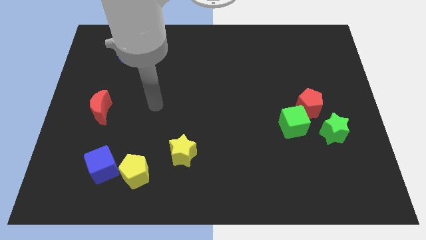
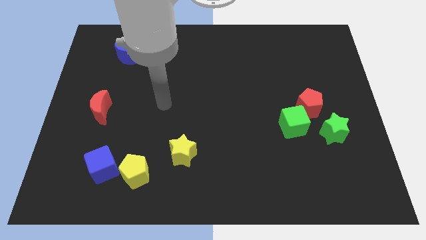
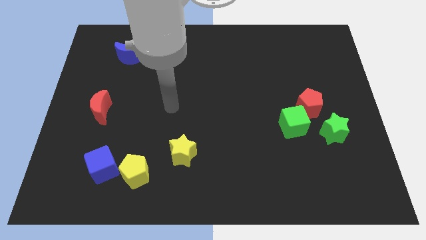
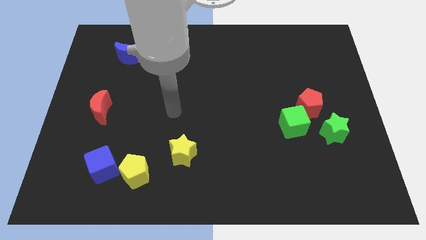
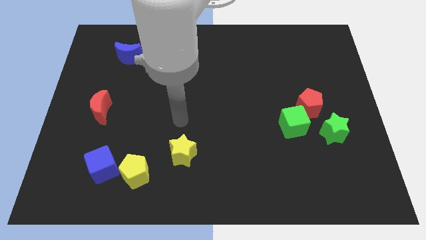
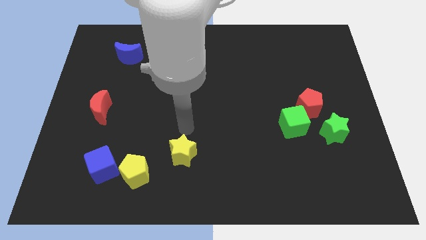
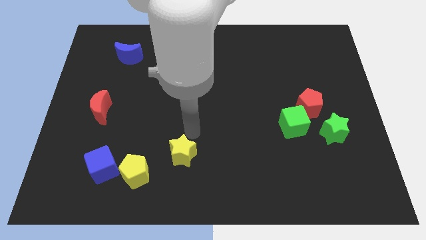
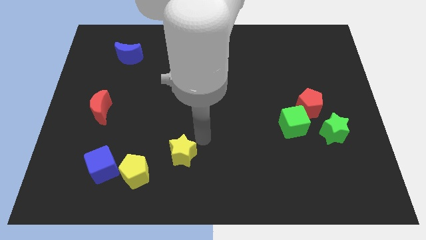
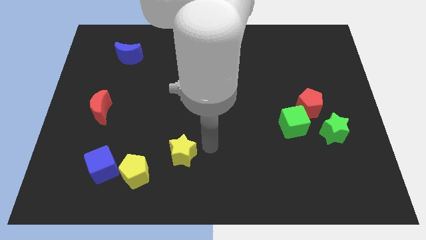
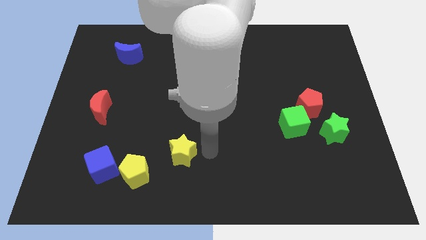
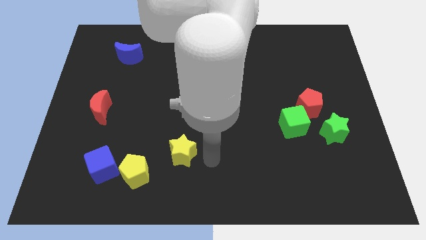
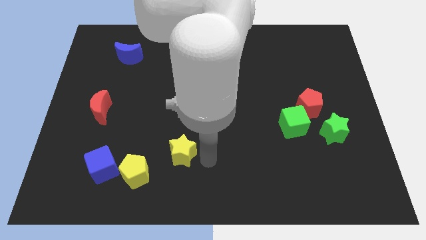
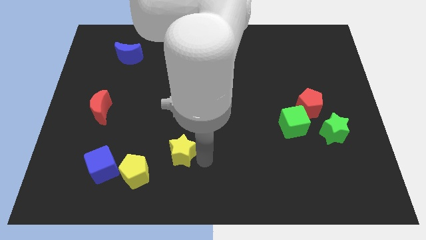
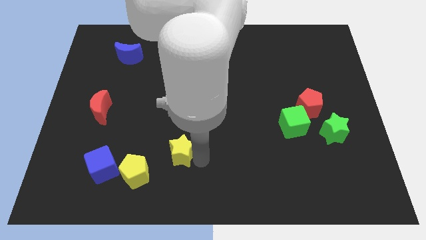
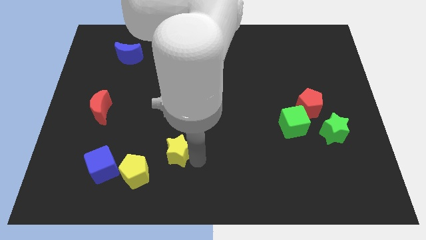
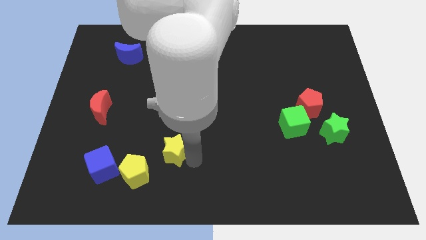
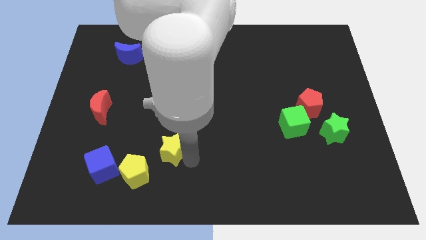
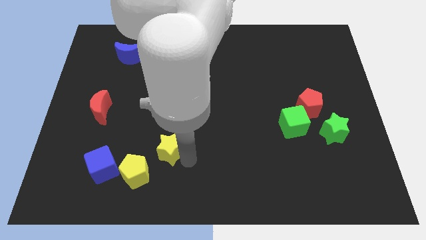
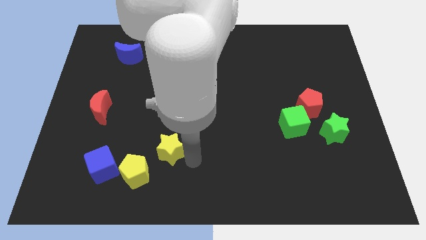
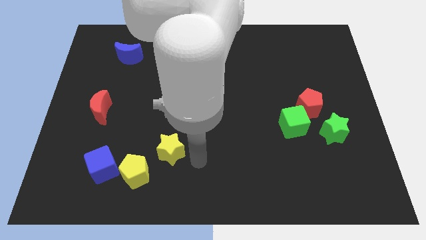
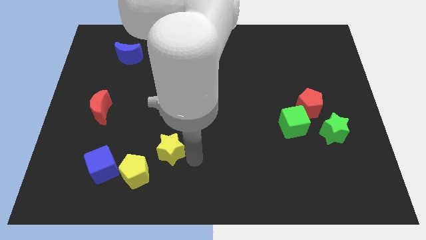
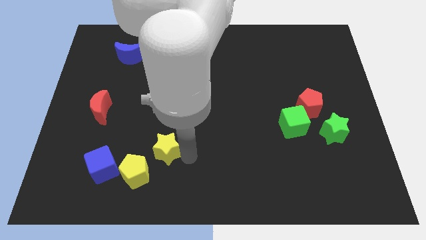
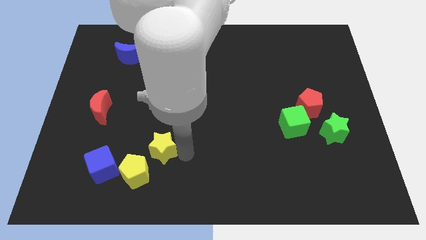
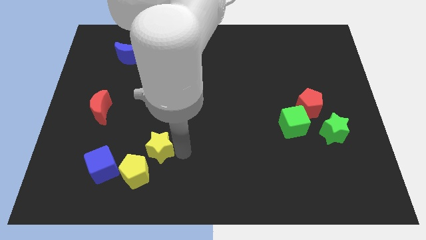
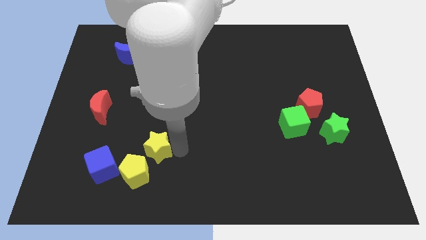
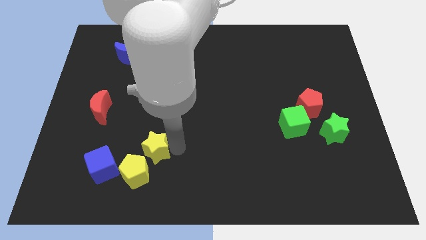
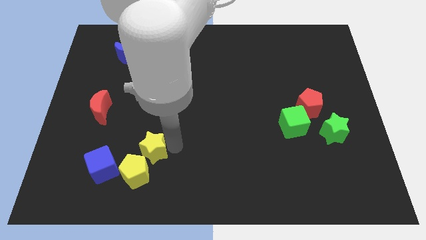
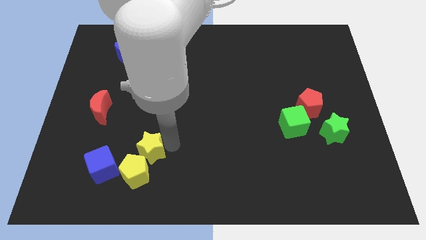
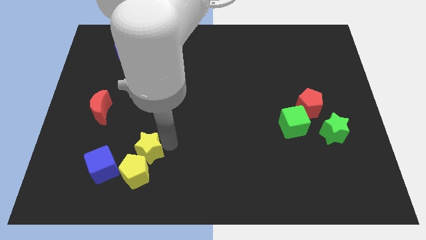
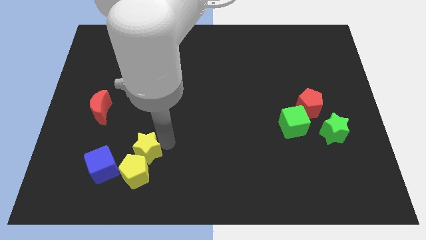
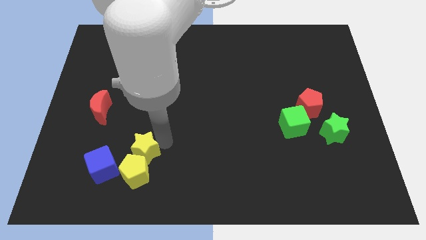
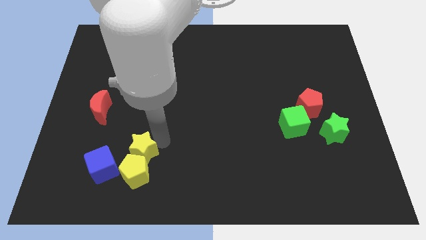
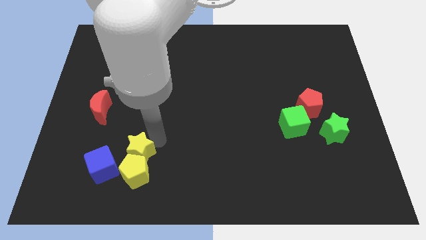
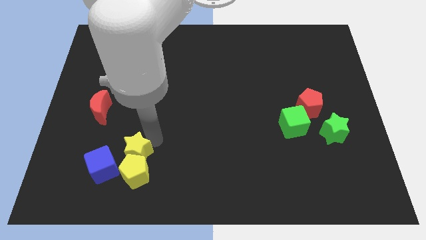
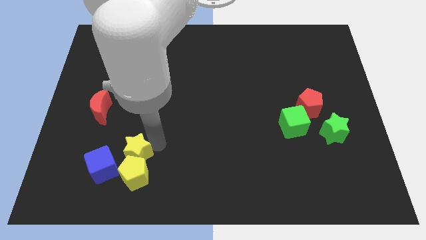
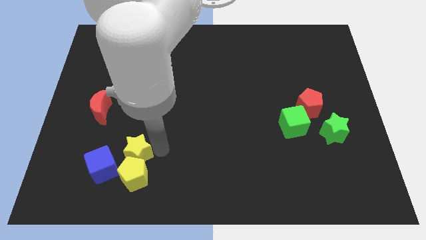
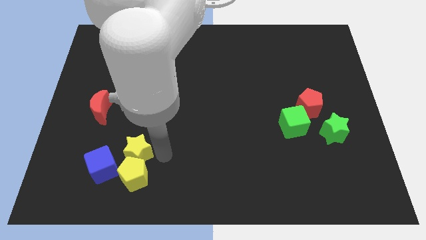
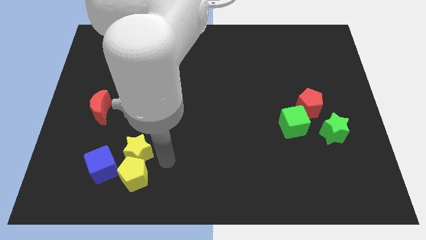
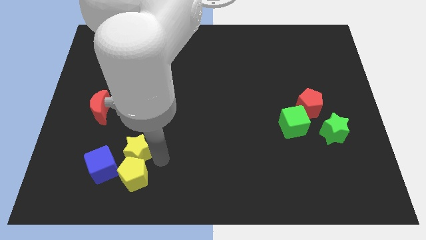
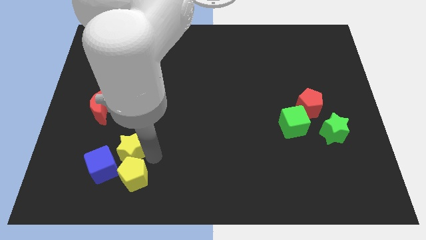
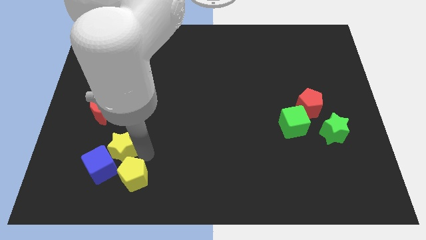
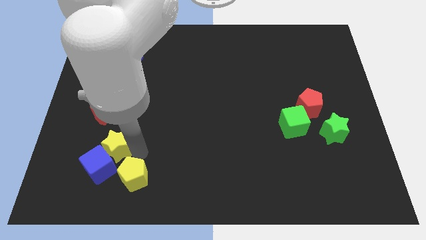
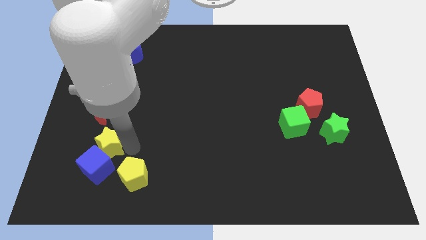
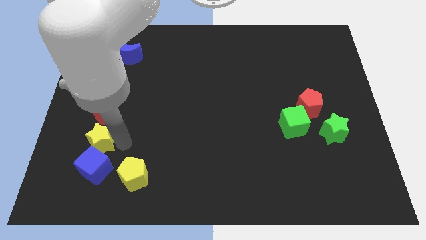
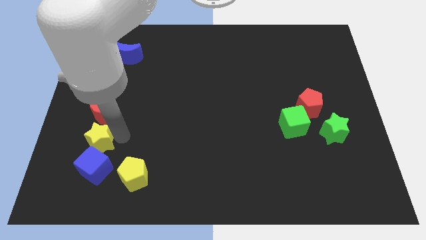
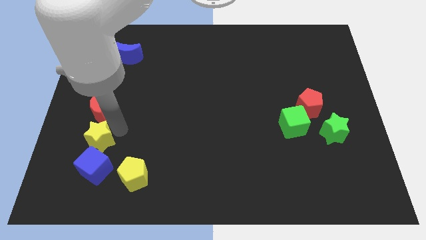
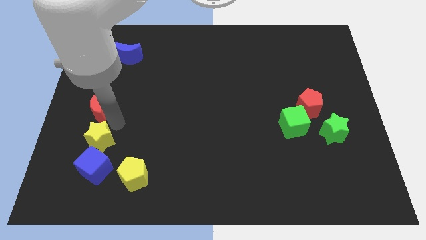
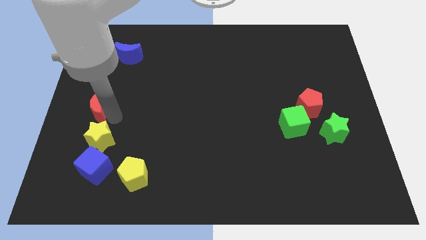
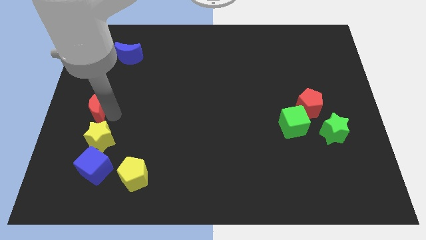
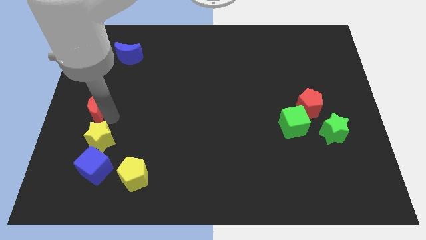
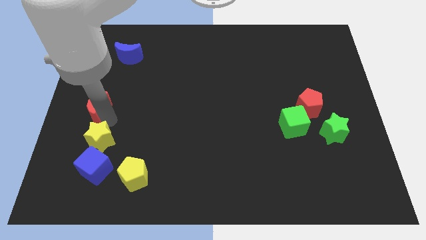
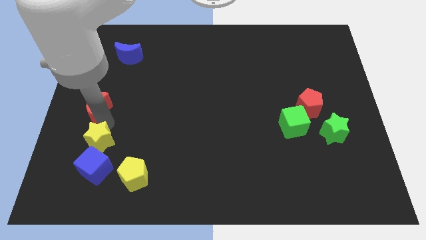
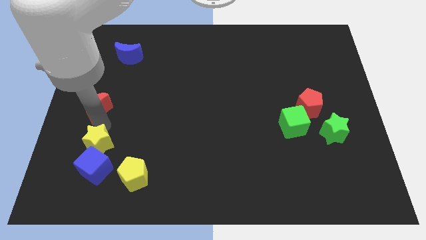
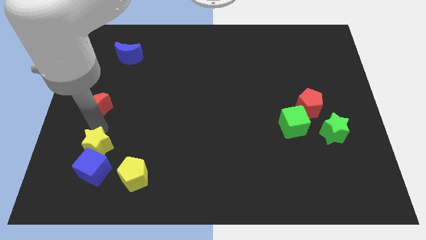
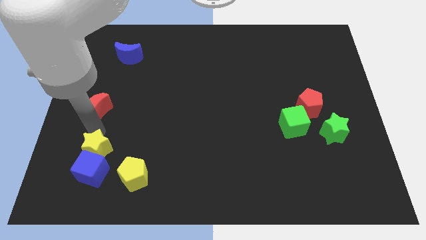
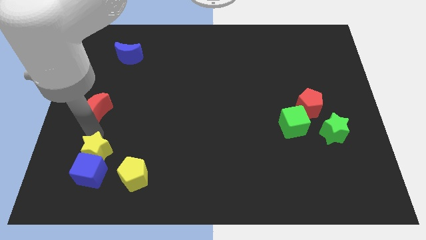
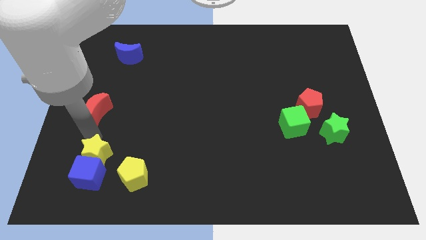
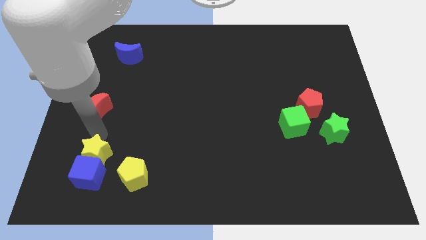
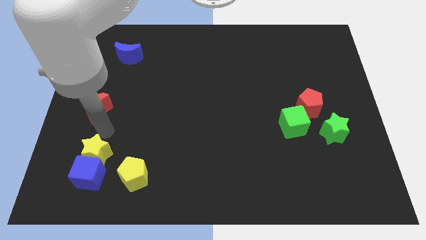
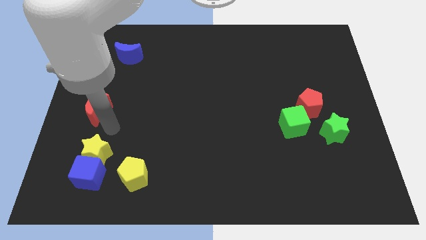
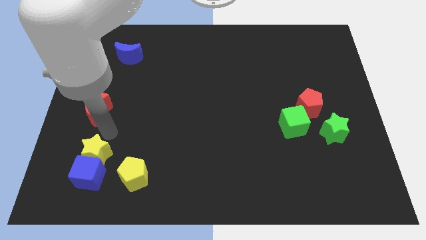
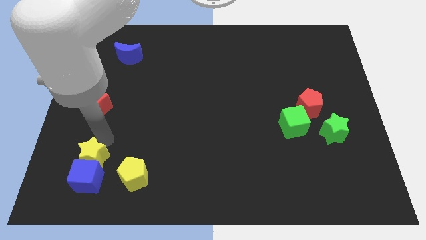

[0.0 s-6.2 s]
push the yellow star to the left side of the yellow pentagon

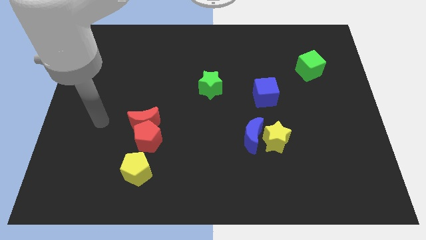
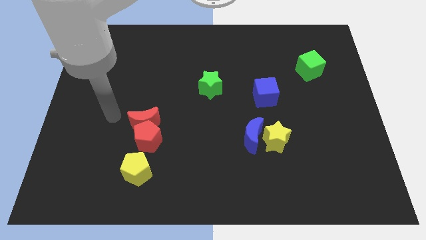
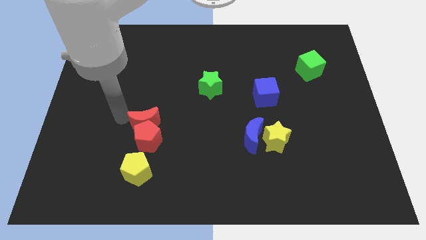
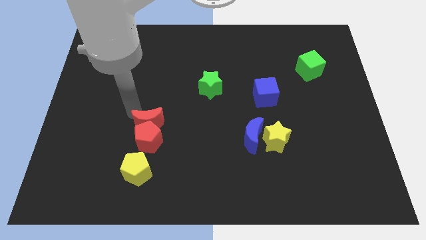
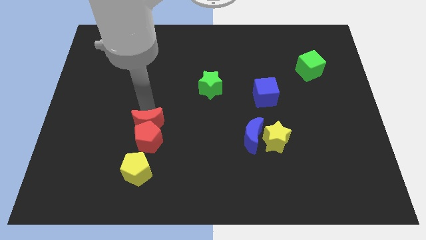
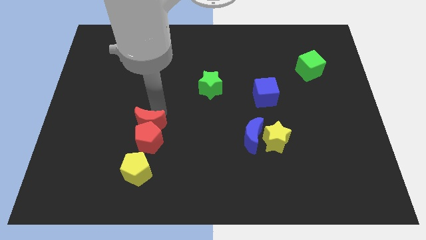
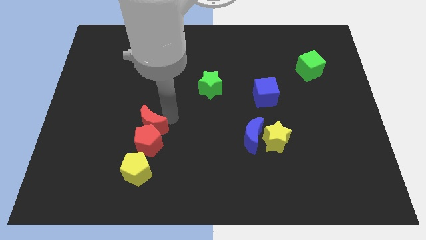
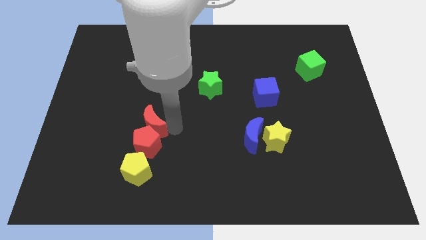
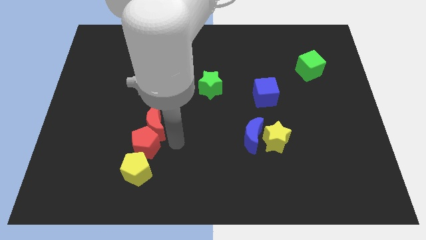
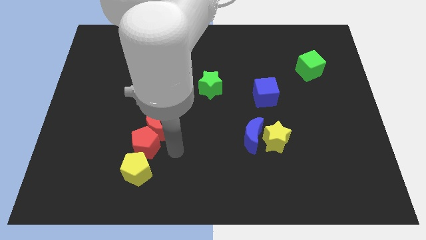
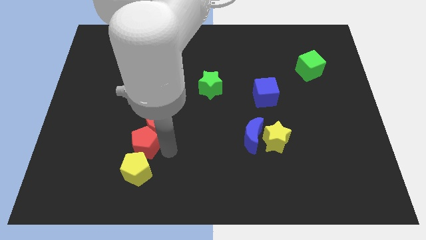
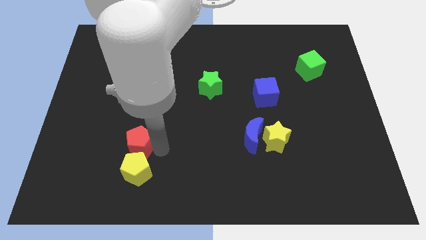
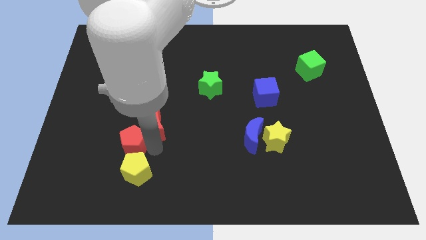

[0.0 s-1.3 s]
move the red pentagon left of the red moon

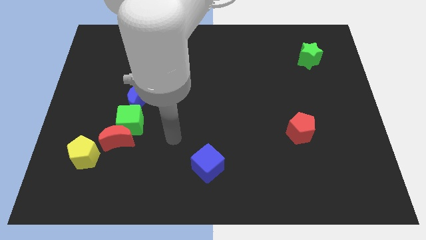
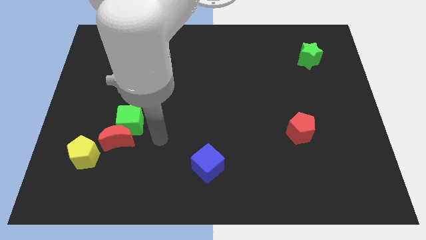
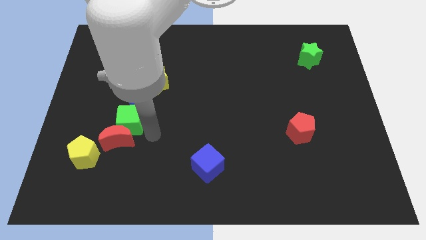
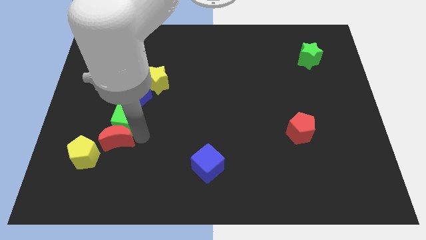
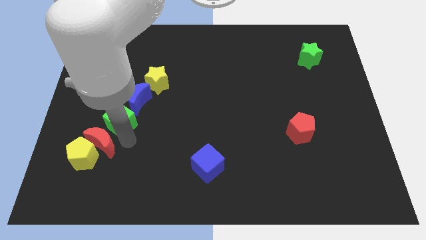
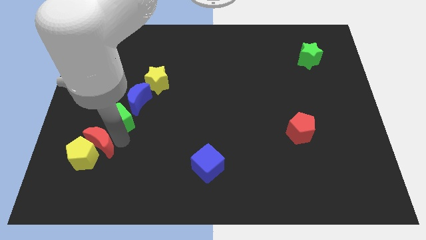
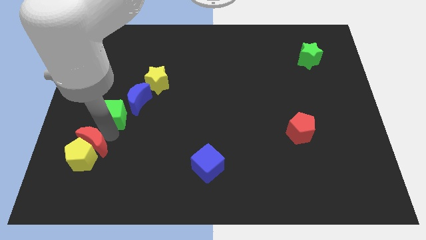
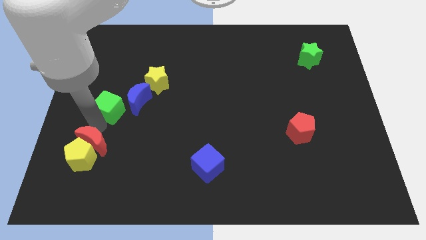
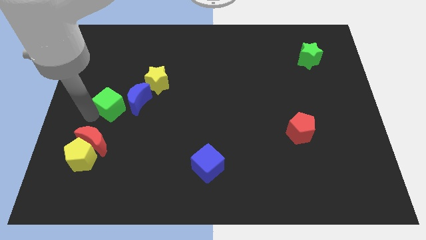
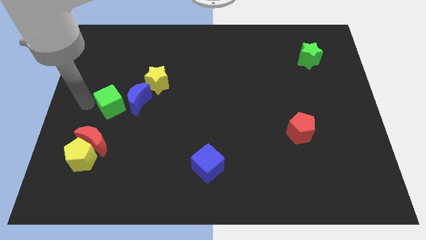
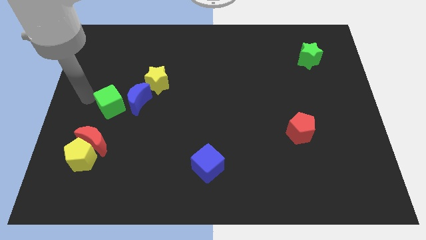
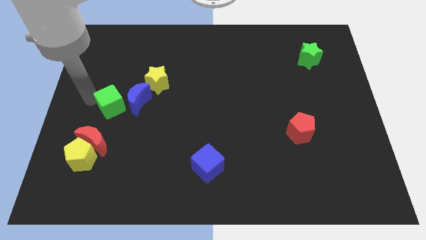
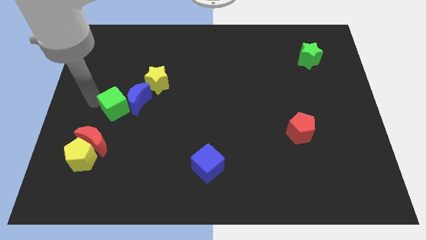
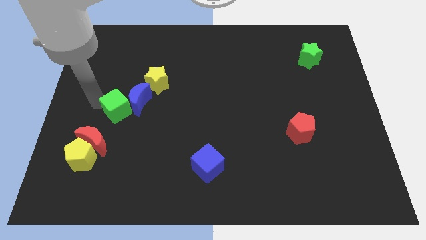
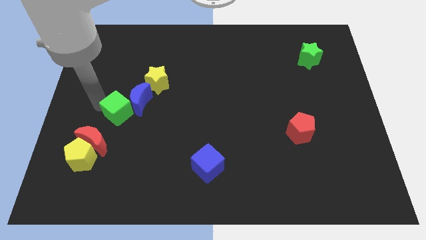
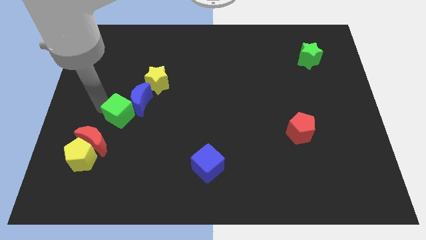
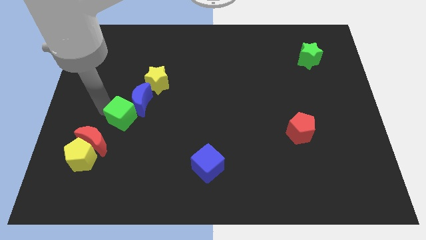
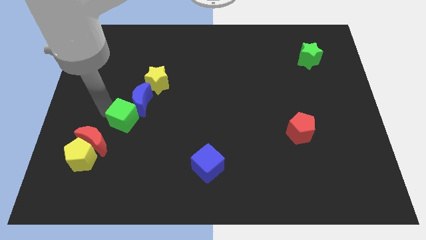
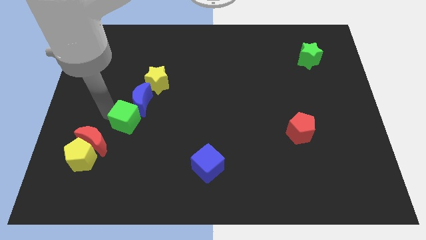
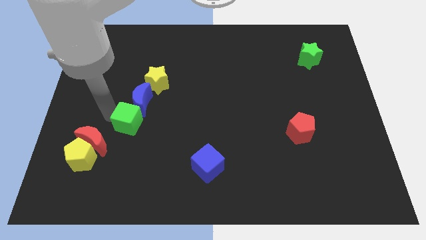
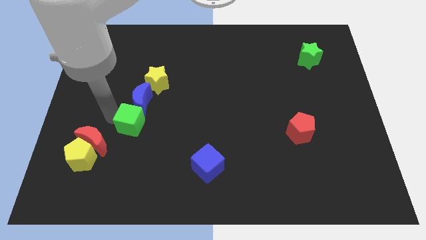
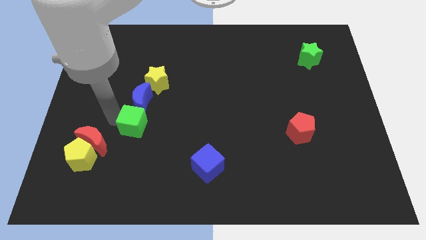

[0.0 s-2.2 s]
push the green cube below the yellow star
